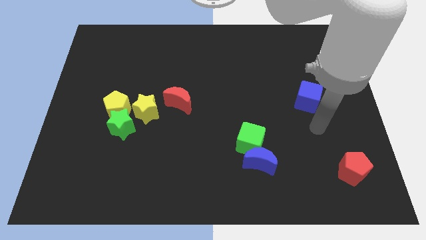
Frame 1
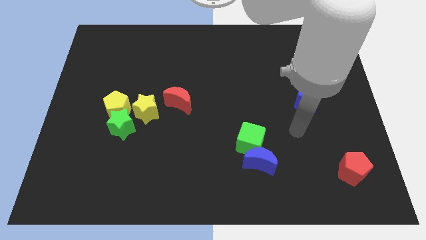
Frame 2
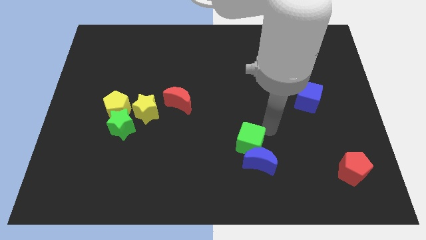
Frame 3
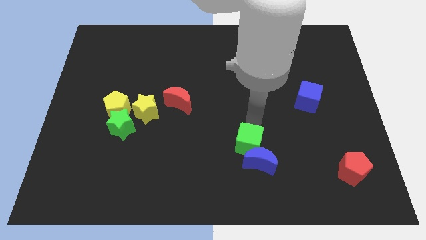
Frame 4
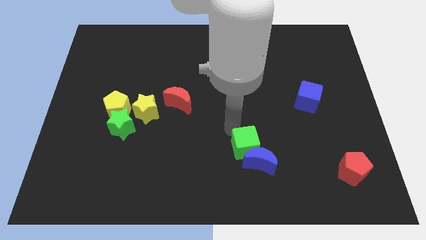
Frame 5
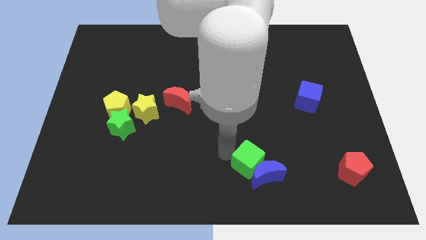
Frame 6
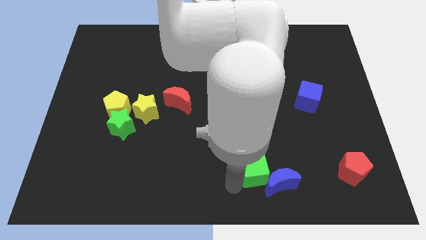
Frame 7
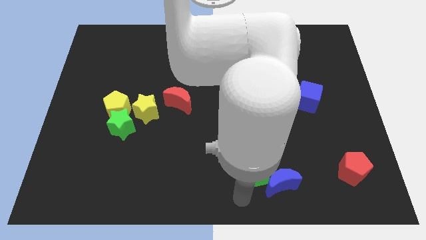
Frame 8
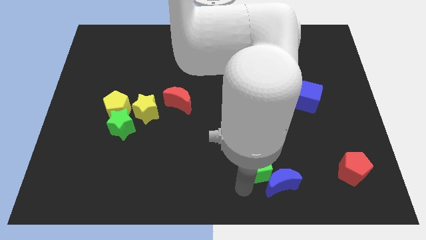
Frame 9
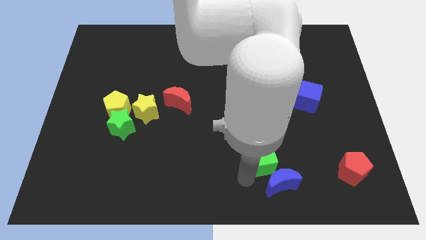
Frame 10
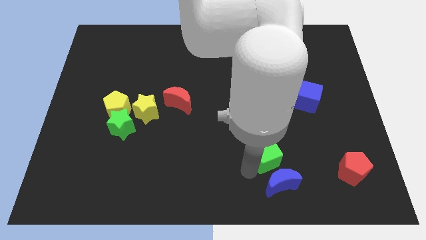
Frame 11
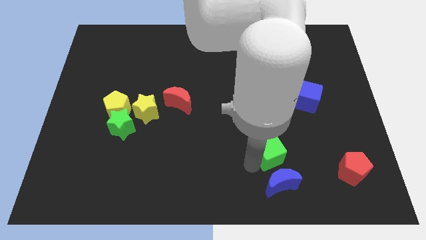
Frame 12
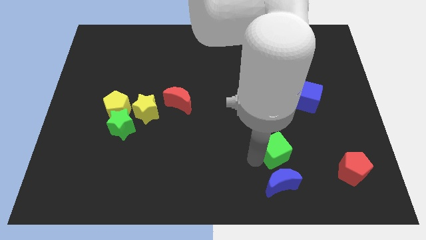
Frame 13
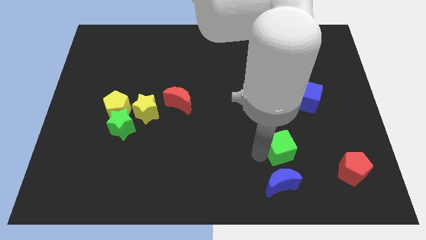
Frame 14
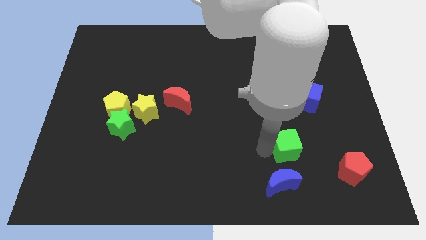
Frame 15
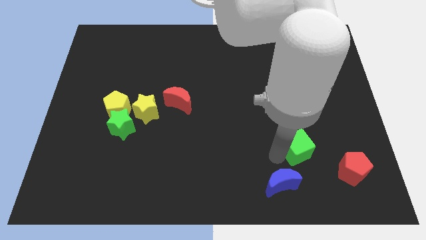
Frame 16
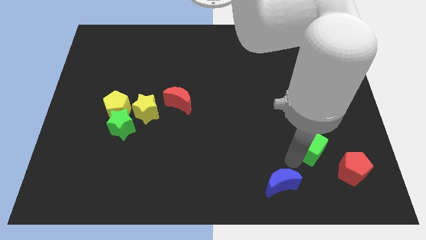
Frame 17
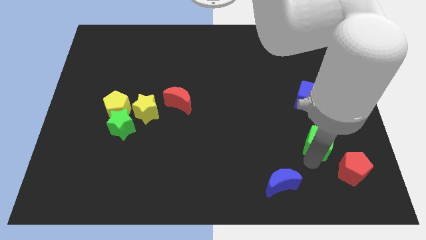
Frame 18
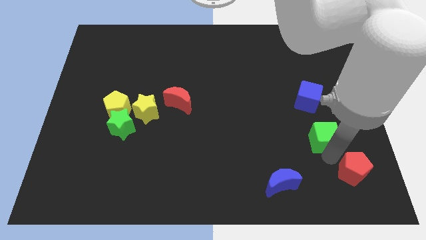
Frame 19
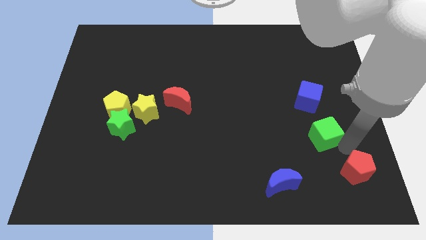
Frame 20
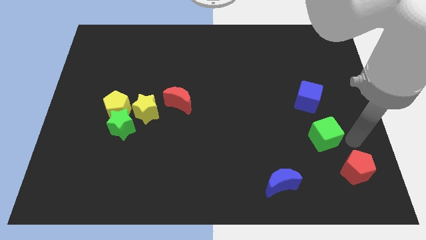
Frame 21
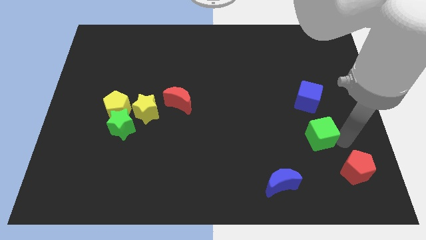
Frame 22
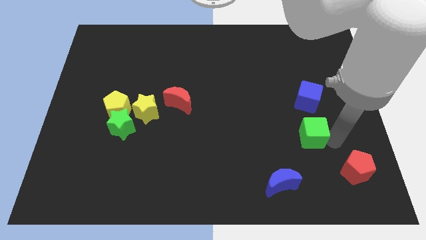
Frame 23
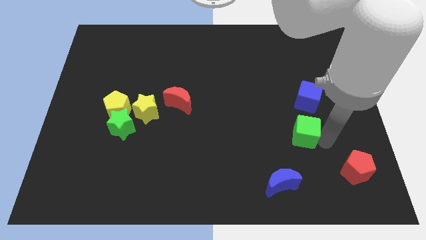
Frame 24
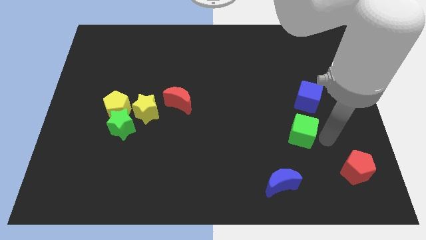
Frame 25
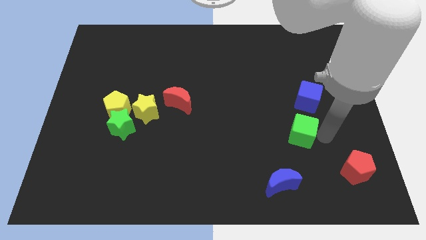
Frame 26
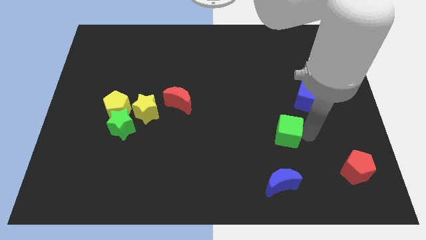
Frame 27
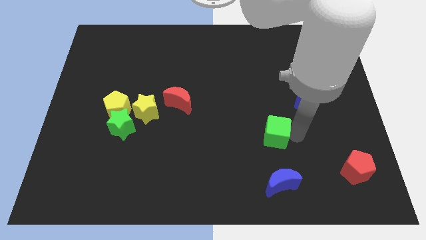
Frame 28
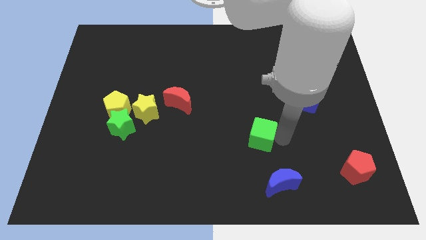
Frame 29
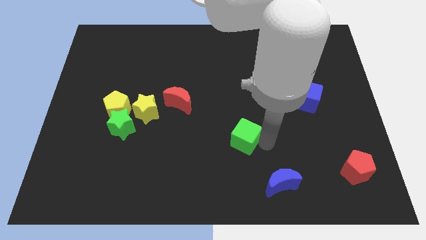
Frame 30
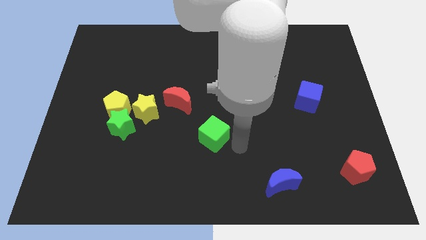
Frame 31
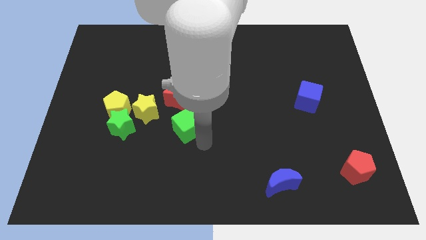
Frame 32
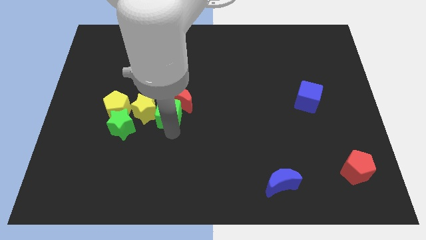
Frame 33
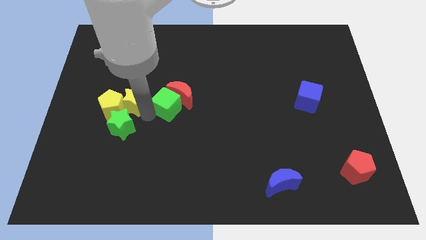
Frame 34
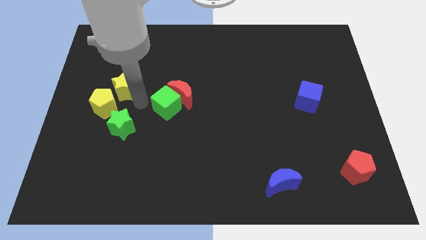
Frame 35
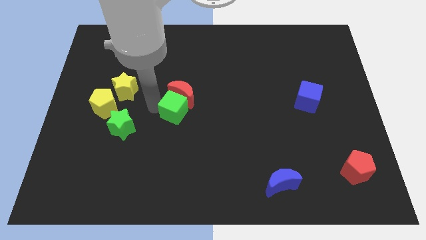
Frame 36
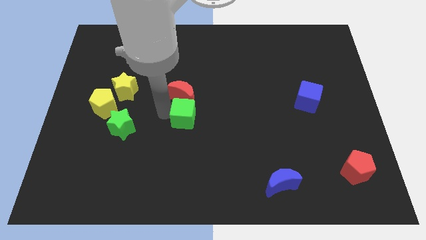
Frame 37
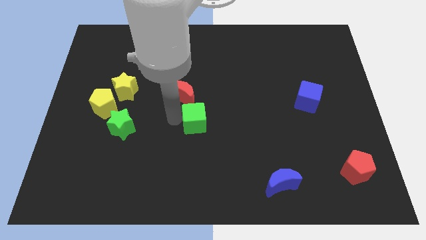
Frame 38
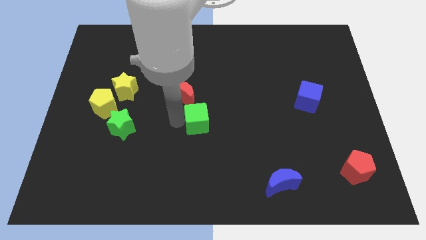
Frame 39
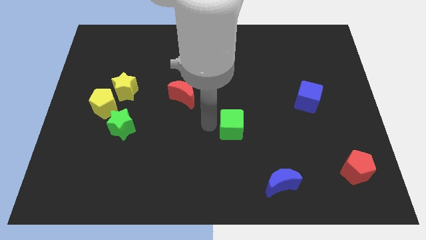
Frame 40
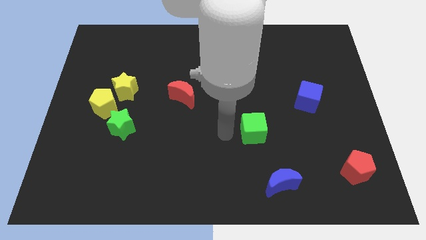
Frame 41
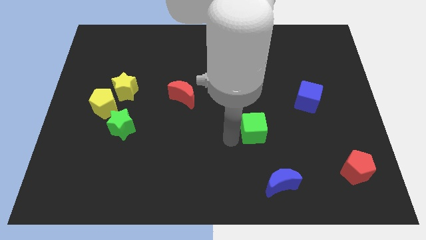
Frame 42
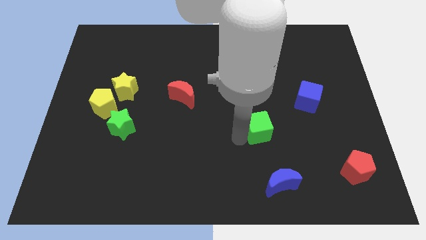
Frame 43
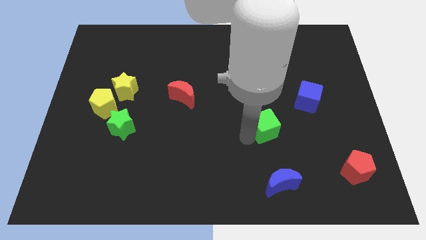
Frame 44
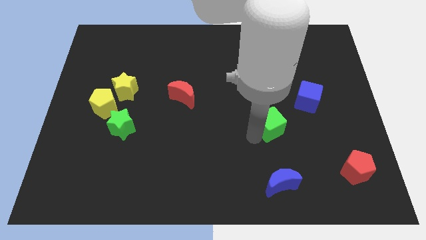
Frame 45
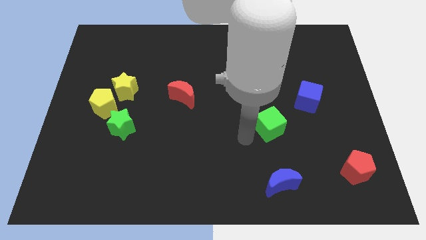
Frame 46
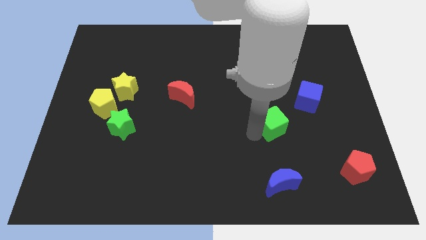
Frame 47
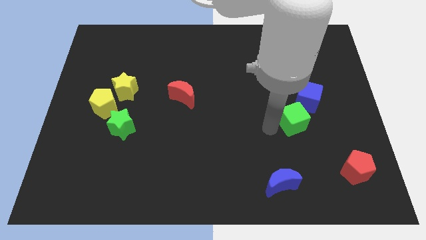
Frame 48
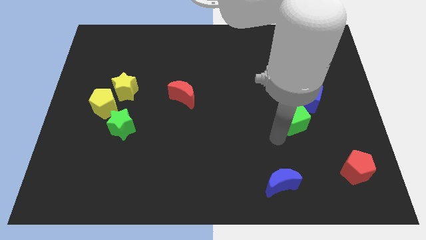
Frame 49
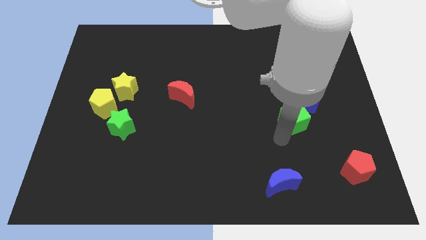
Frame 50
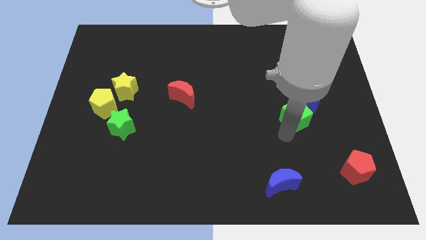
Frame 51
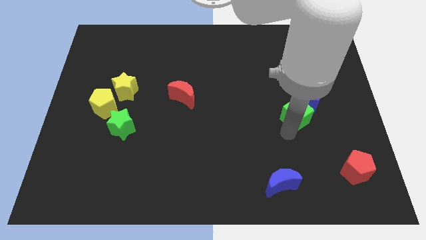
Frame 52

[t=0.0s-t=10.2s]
put the green cube close to the blue cube

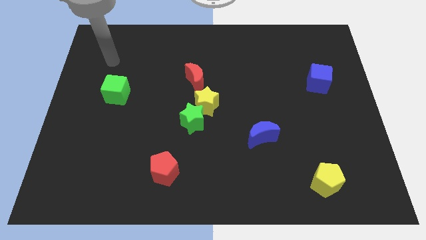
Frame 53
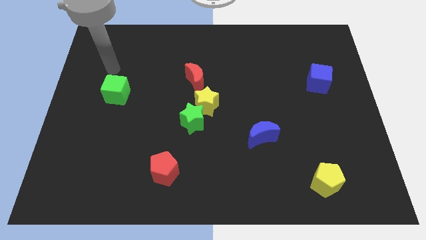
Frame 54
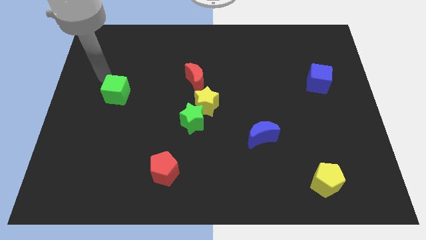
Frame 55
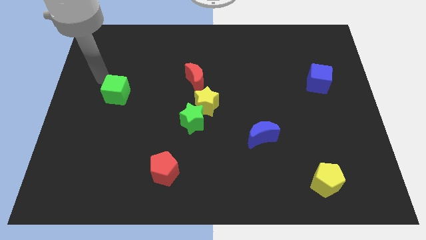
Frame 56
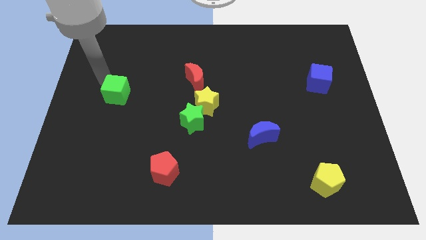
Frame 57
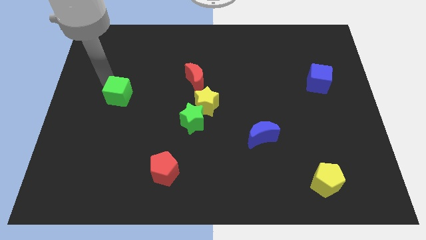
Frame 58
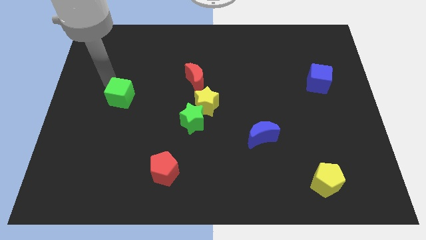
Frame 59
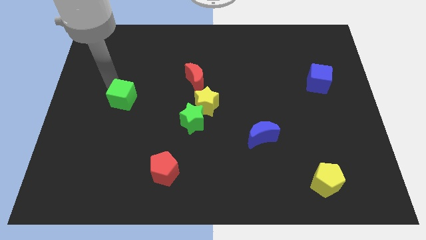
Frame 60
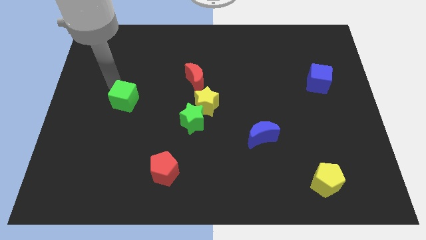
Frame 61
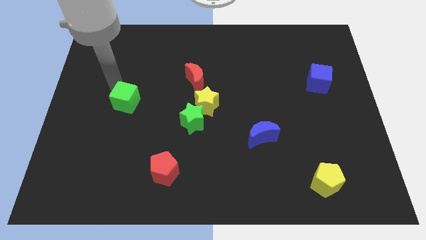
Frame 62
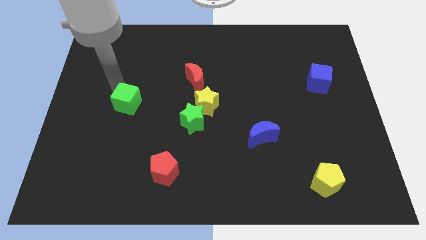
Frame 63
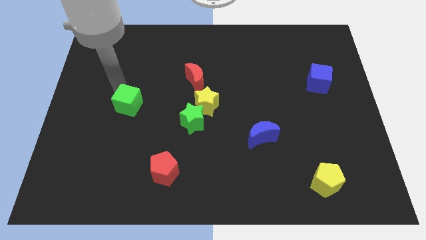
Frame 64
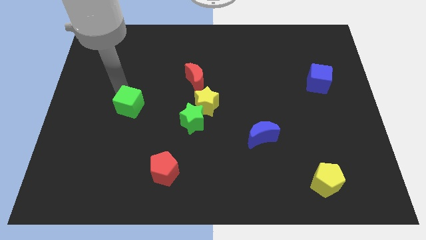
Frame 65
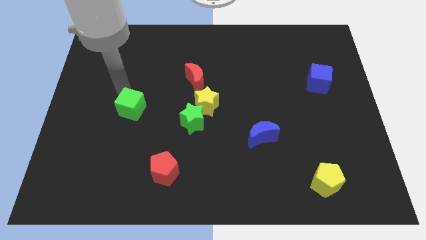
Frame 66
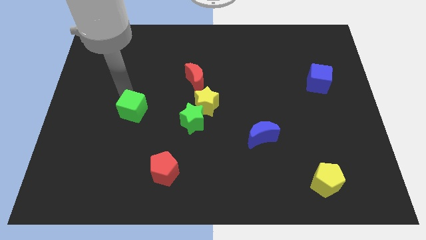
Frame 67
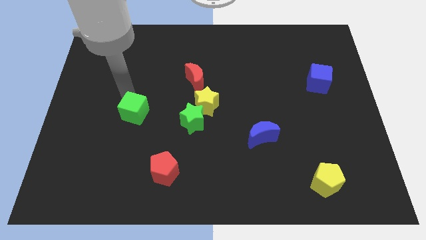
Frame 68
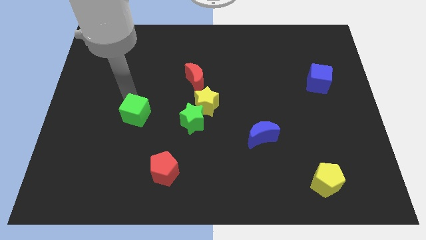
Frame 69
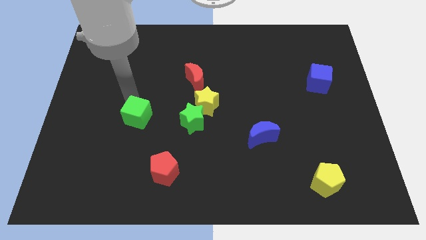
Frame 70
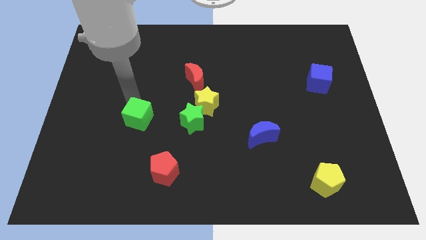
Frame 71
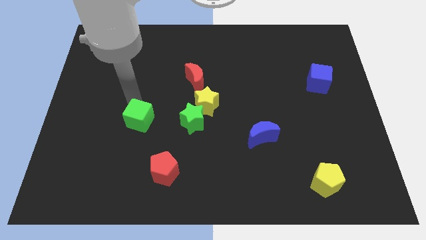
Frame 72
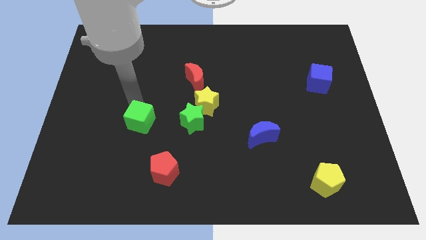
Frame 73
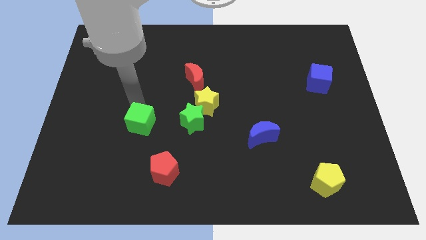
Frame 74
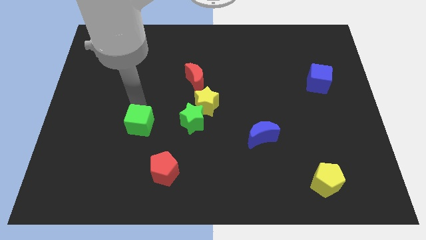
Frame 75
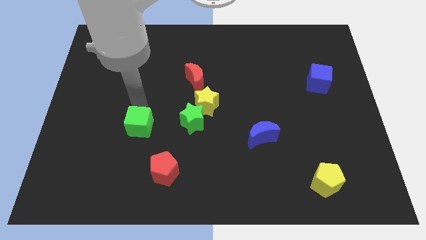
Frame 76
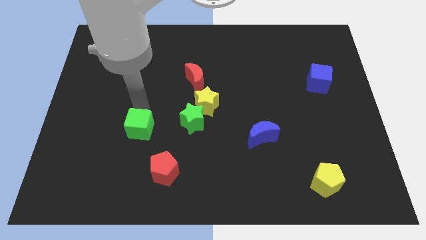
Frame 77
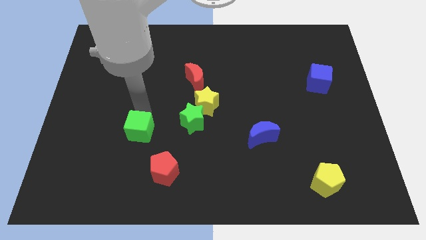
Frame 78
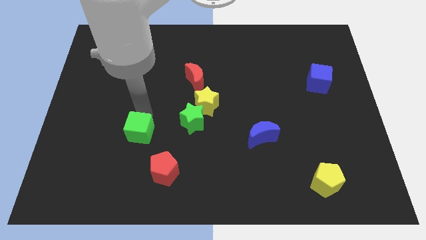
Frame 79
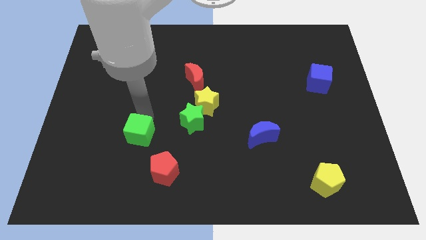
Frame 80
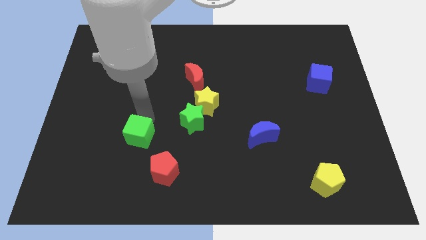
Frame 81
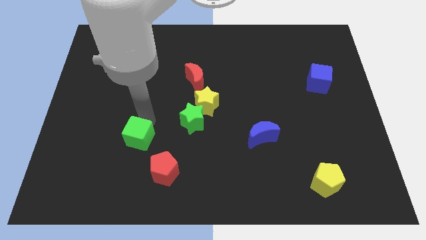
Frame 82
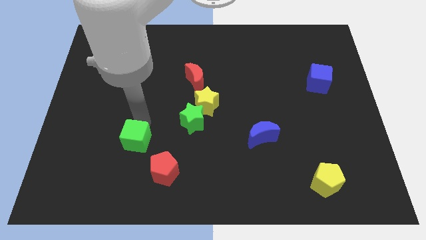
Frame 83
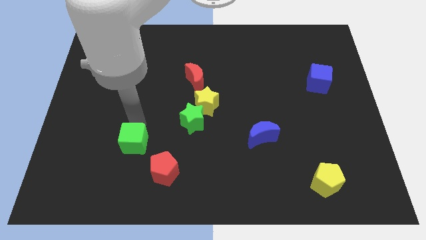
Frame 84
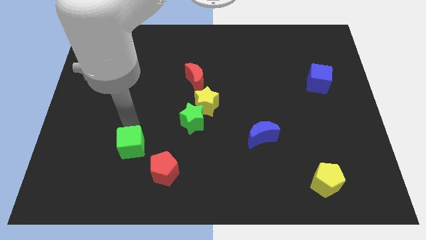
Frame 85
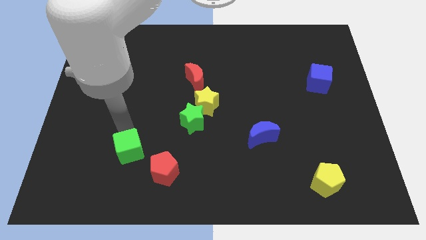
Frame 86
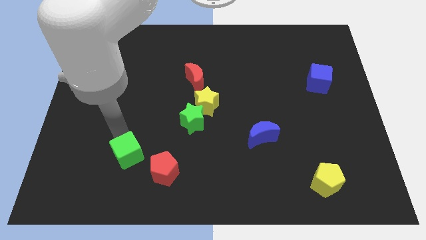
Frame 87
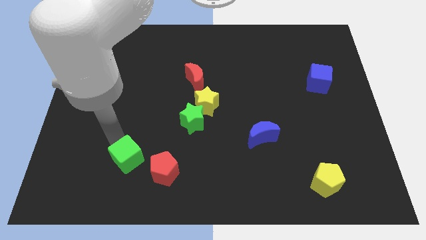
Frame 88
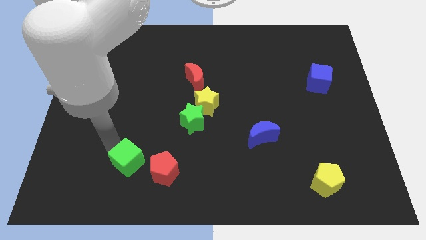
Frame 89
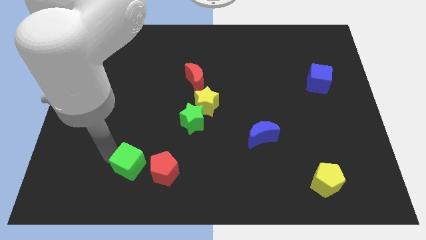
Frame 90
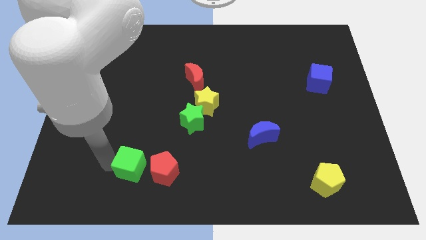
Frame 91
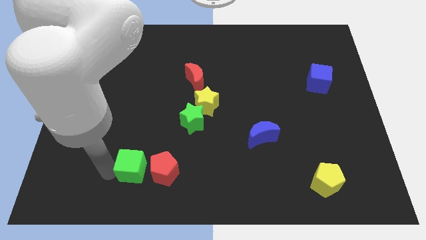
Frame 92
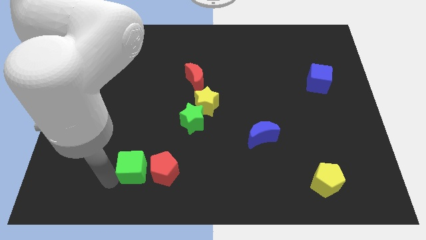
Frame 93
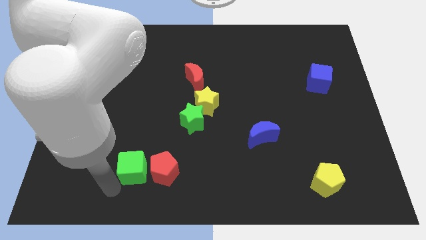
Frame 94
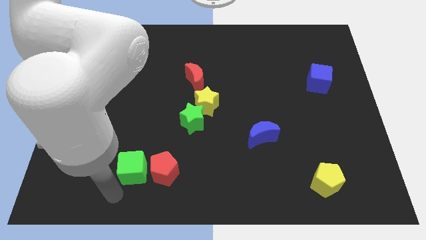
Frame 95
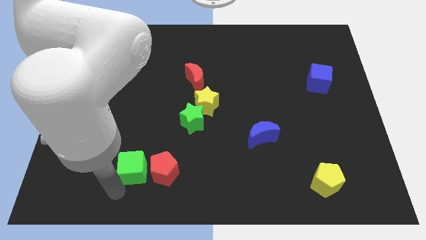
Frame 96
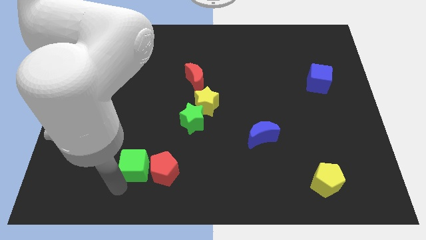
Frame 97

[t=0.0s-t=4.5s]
push the green cube close to the red pentagon
